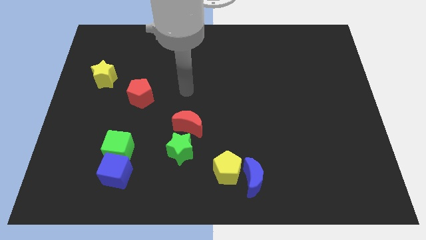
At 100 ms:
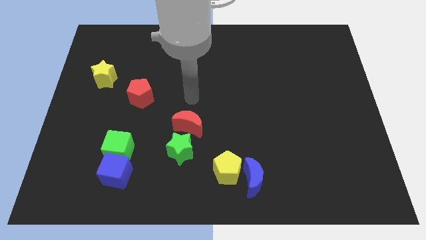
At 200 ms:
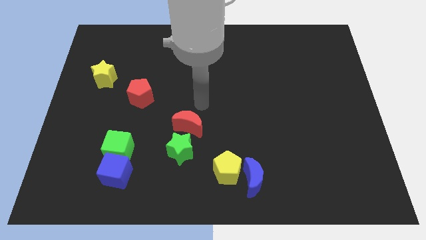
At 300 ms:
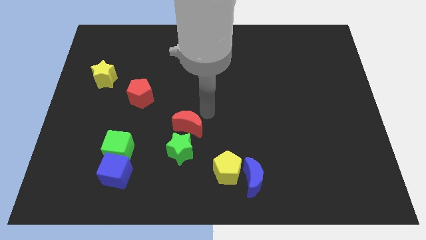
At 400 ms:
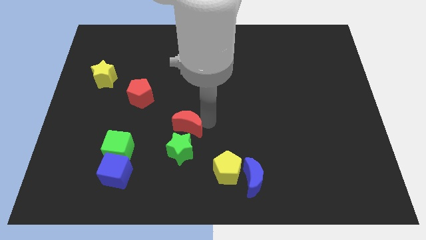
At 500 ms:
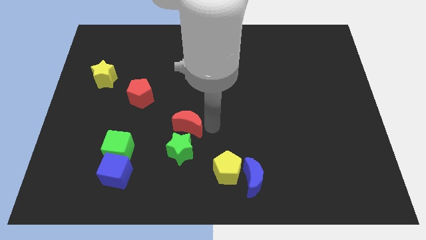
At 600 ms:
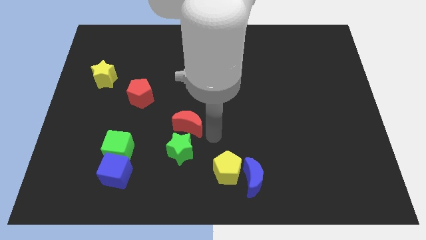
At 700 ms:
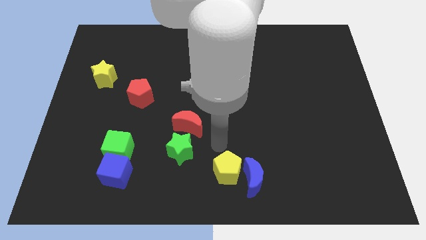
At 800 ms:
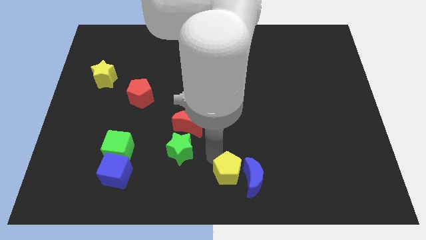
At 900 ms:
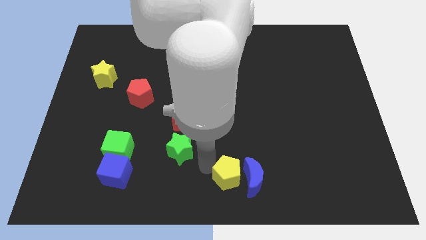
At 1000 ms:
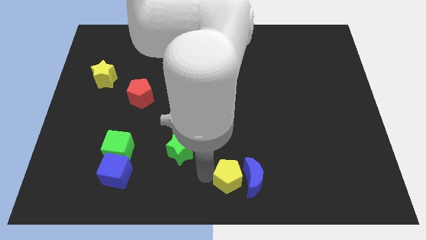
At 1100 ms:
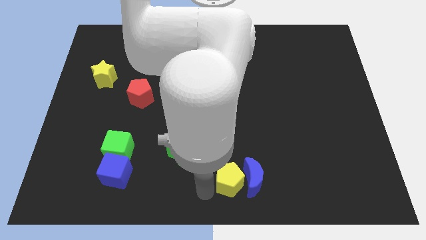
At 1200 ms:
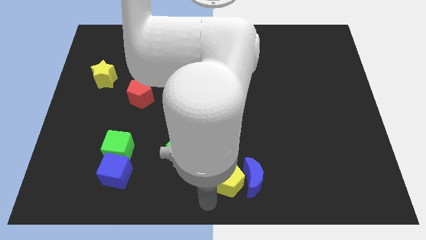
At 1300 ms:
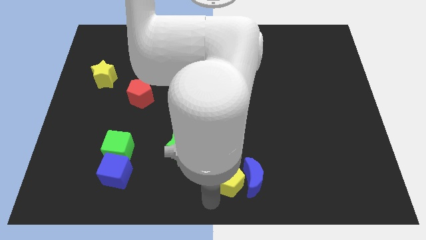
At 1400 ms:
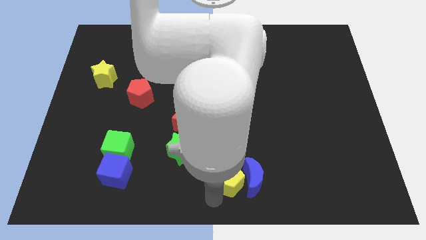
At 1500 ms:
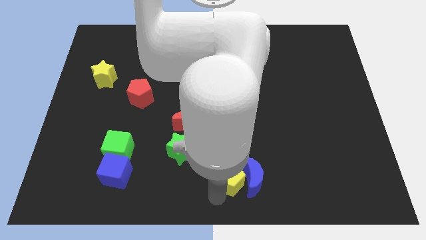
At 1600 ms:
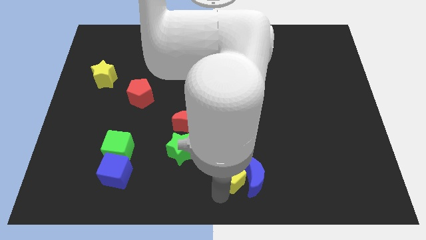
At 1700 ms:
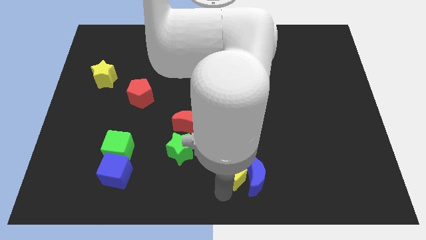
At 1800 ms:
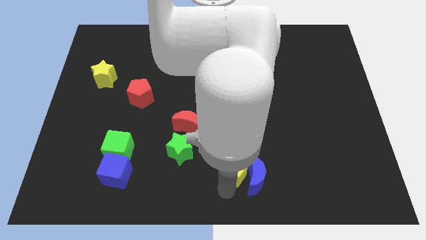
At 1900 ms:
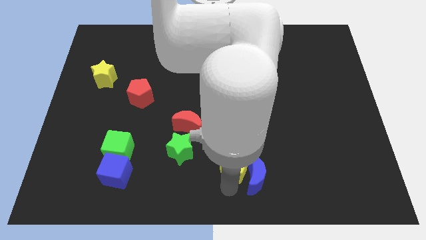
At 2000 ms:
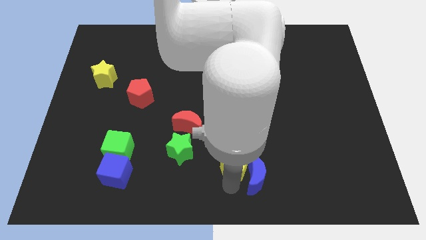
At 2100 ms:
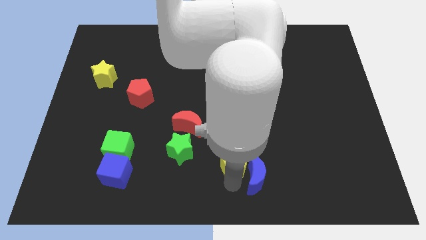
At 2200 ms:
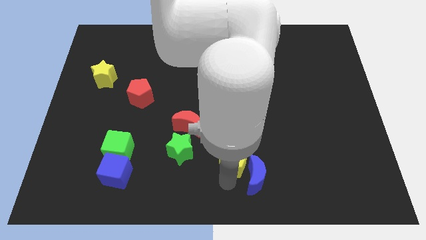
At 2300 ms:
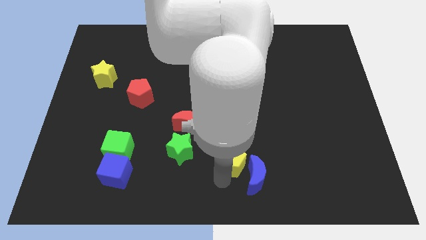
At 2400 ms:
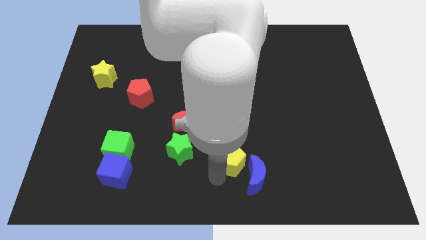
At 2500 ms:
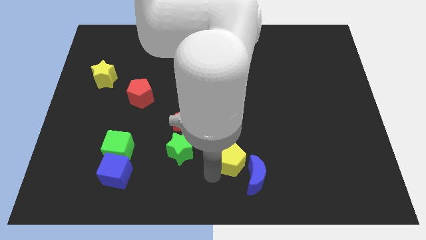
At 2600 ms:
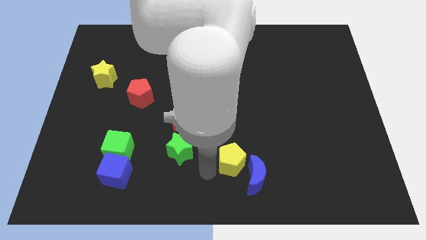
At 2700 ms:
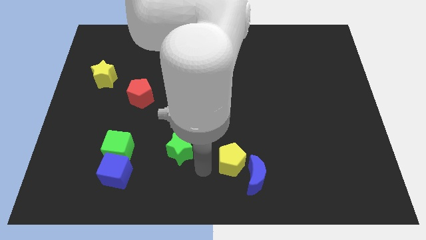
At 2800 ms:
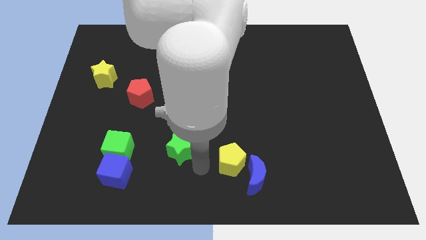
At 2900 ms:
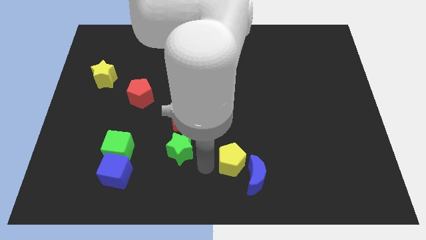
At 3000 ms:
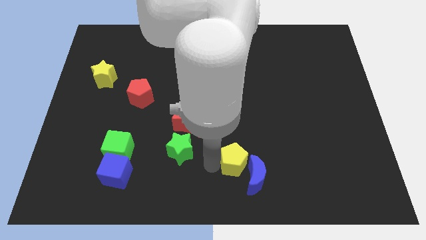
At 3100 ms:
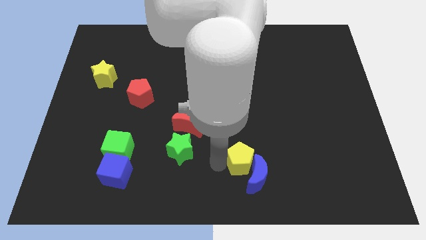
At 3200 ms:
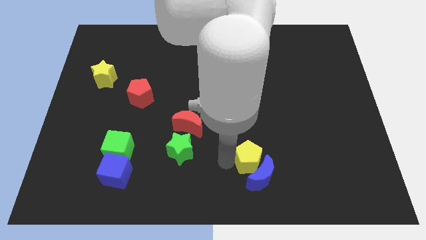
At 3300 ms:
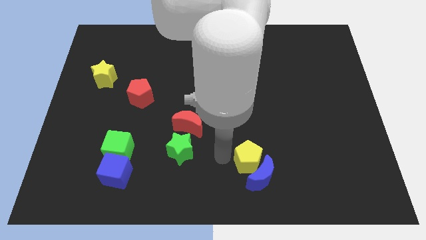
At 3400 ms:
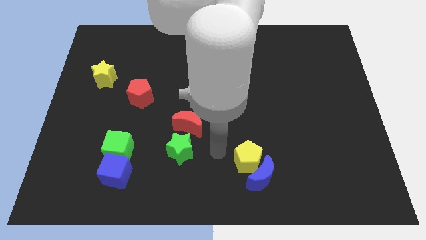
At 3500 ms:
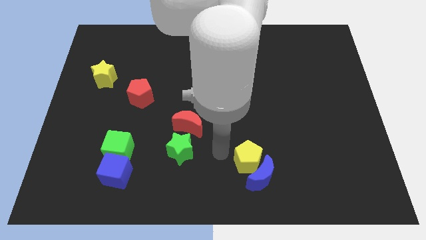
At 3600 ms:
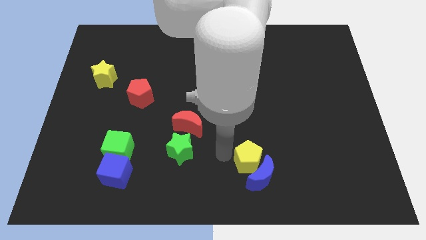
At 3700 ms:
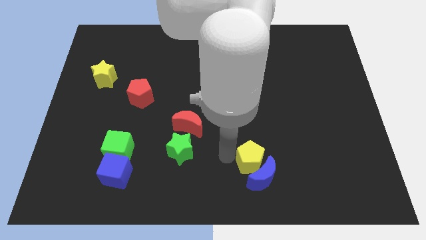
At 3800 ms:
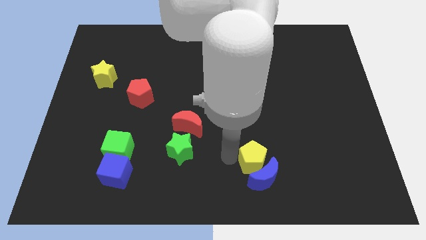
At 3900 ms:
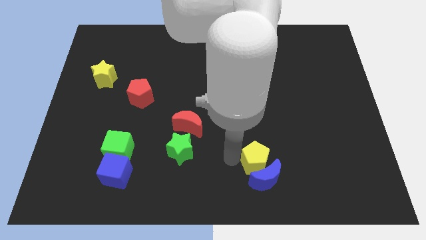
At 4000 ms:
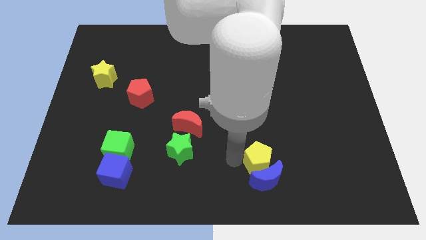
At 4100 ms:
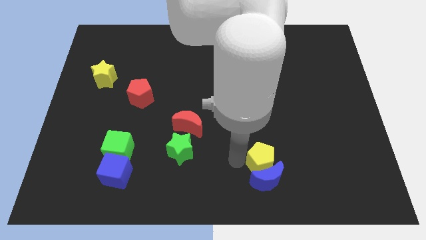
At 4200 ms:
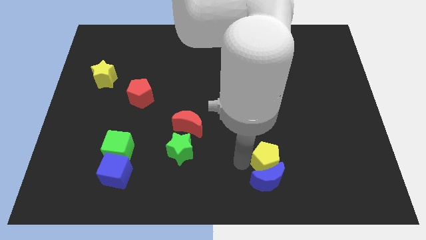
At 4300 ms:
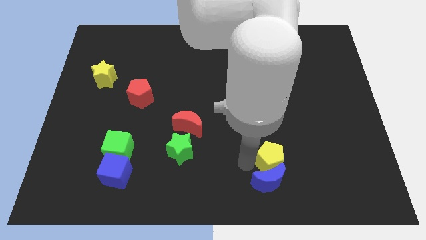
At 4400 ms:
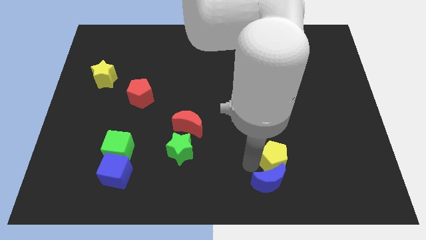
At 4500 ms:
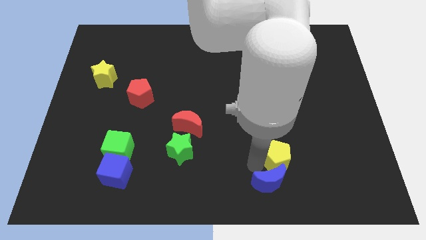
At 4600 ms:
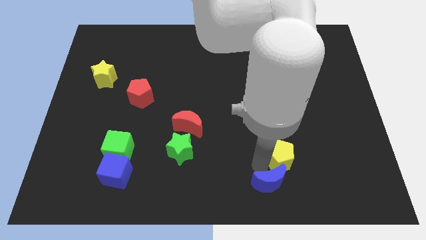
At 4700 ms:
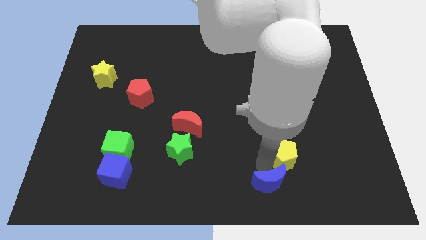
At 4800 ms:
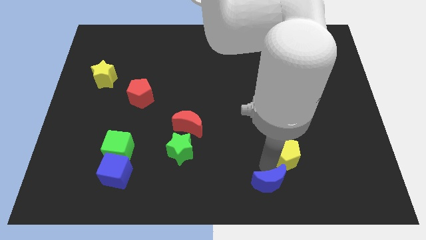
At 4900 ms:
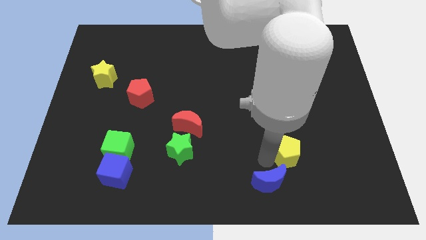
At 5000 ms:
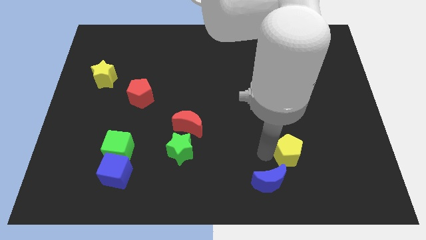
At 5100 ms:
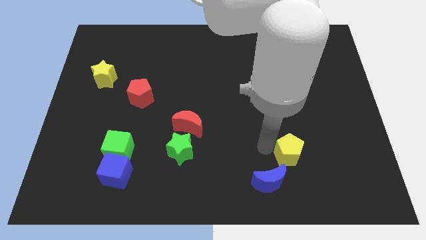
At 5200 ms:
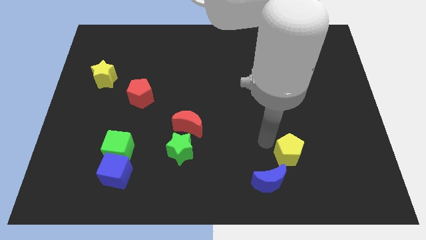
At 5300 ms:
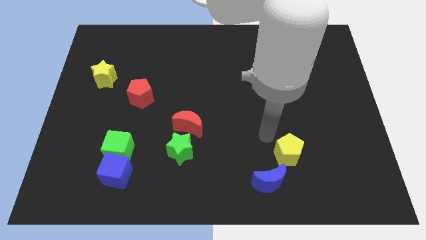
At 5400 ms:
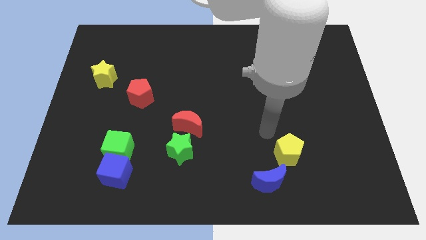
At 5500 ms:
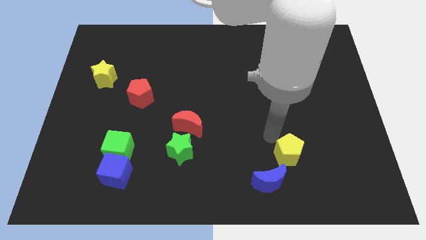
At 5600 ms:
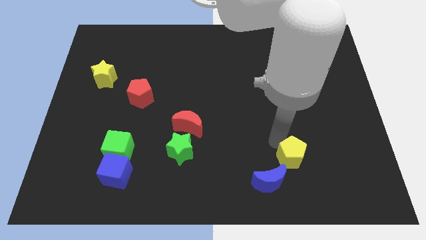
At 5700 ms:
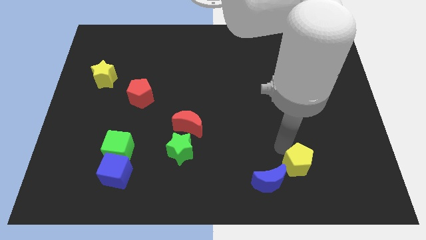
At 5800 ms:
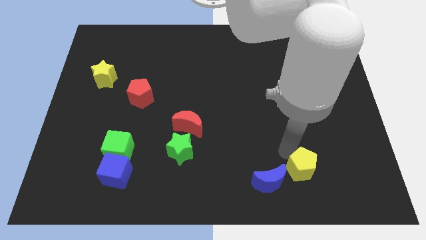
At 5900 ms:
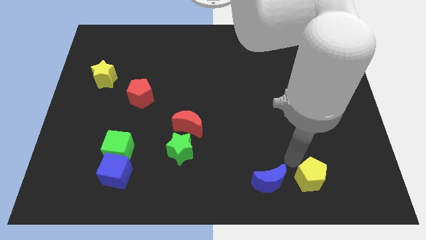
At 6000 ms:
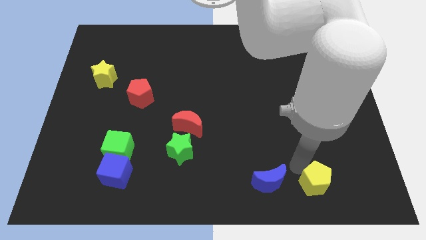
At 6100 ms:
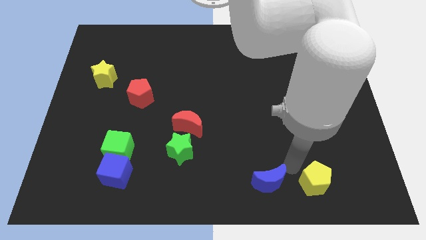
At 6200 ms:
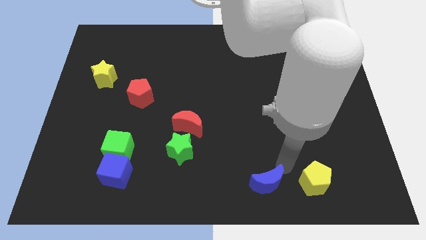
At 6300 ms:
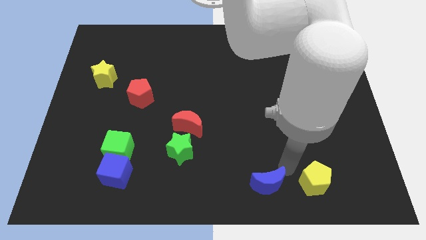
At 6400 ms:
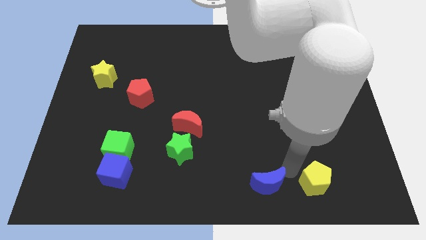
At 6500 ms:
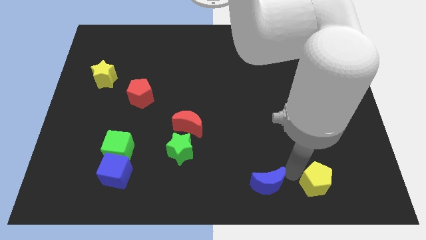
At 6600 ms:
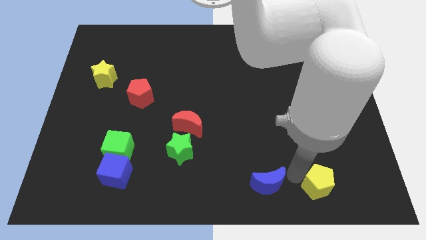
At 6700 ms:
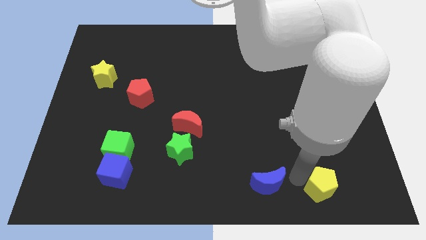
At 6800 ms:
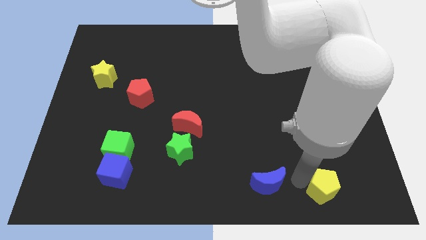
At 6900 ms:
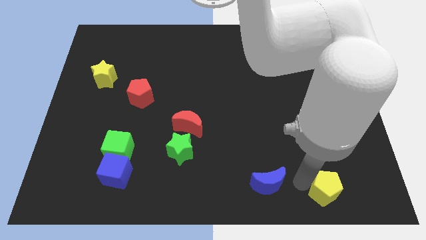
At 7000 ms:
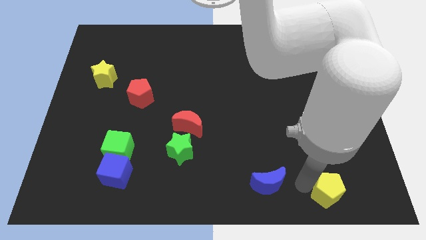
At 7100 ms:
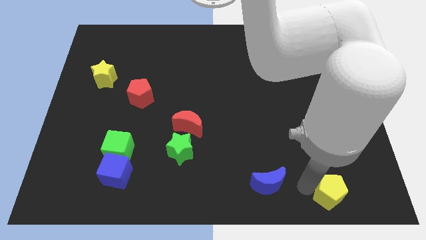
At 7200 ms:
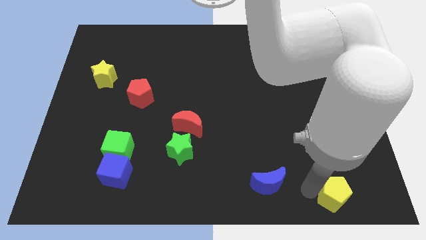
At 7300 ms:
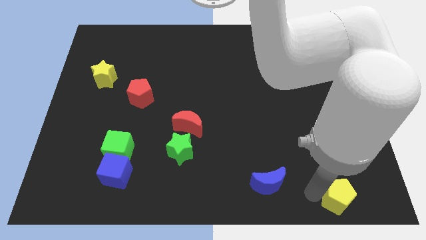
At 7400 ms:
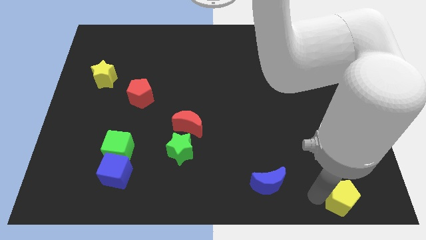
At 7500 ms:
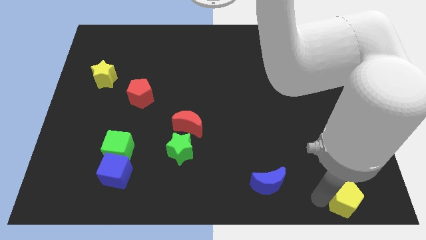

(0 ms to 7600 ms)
push the yellow pentagon to the bottom right corner
